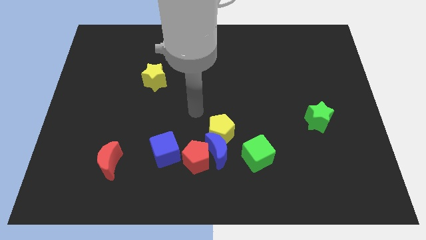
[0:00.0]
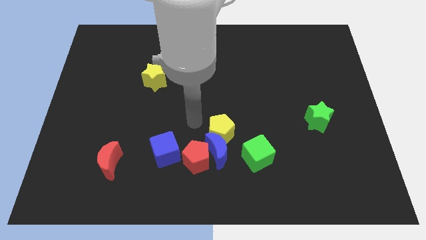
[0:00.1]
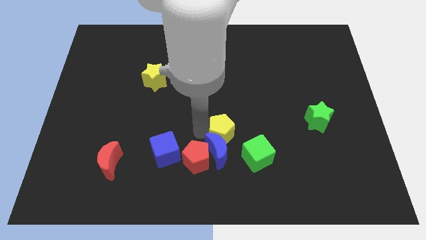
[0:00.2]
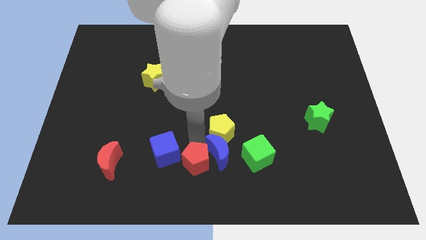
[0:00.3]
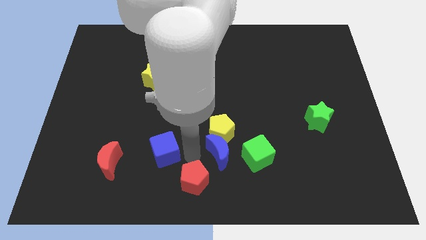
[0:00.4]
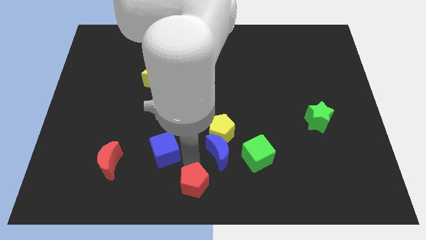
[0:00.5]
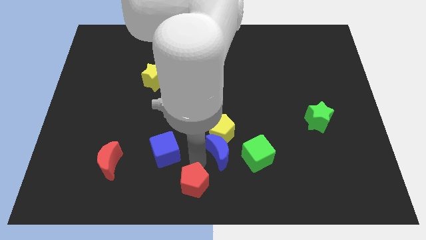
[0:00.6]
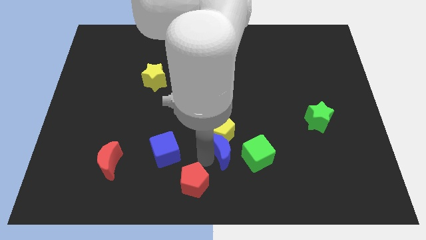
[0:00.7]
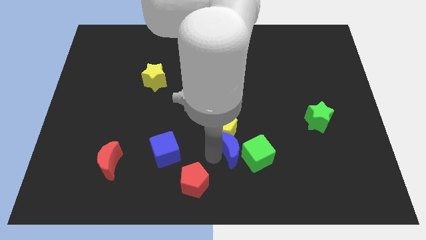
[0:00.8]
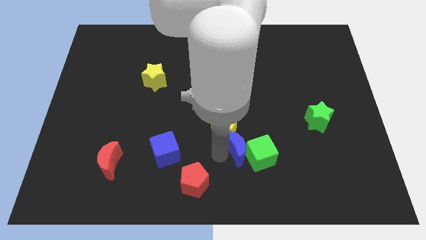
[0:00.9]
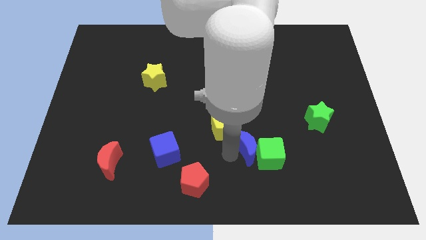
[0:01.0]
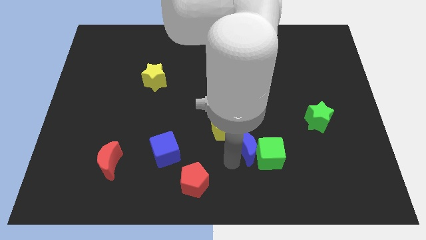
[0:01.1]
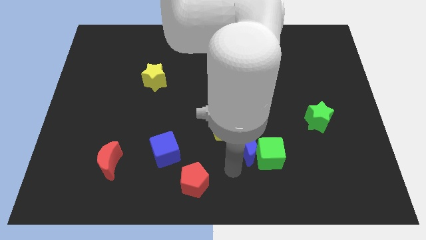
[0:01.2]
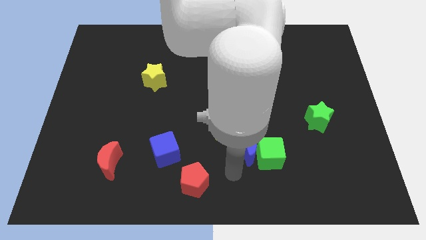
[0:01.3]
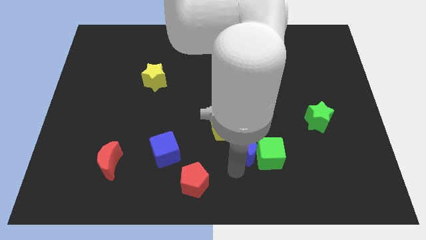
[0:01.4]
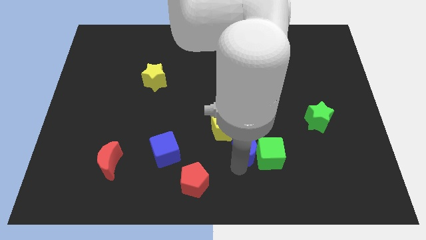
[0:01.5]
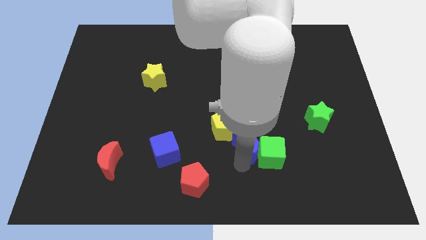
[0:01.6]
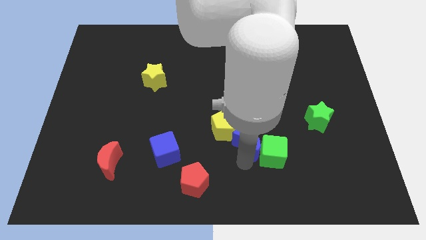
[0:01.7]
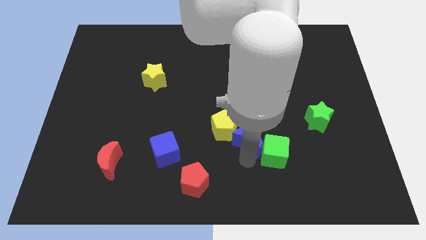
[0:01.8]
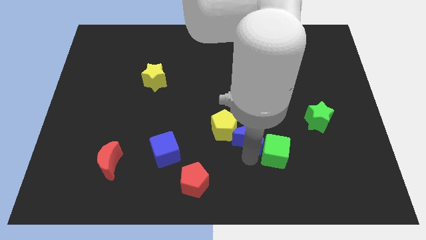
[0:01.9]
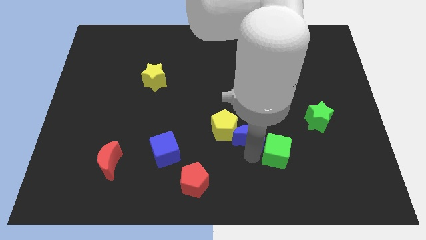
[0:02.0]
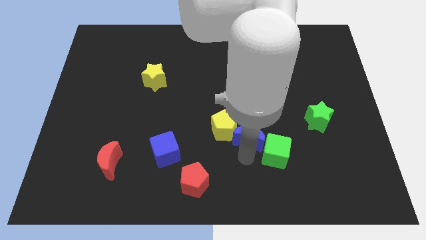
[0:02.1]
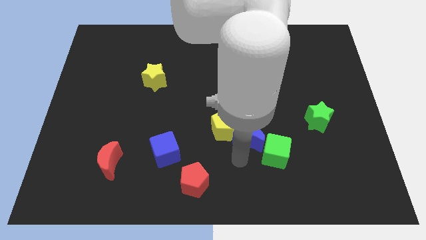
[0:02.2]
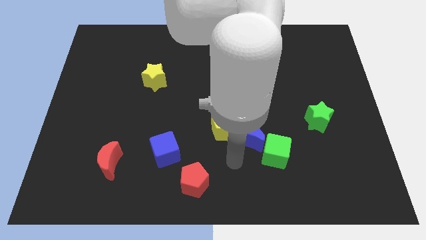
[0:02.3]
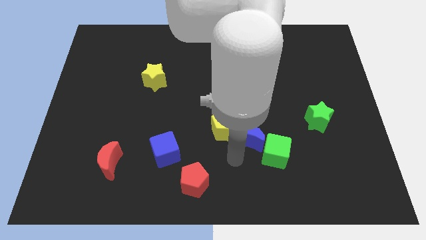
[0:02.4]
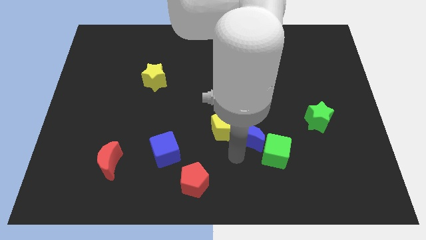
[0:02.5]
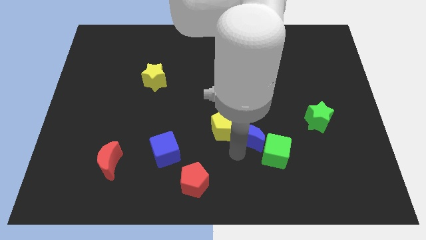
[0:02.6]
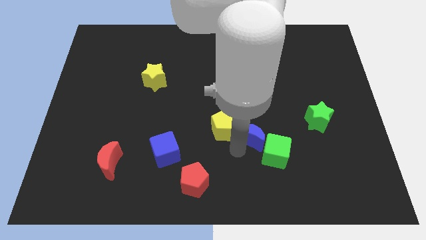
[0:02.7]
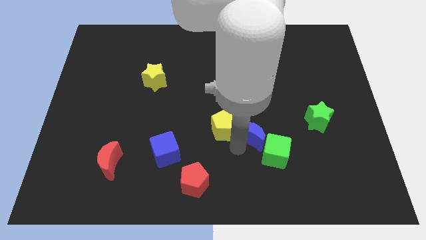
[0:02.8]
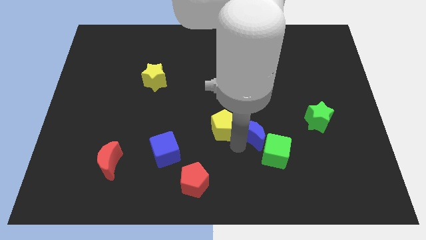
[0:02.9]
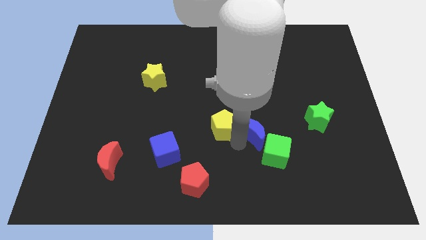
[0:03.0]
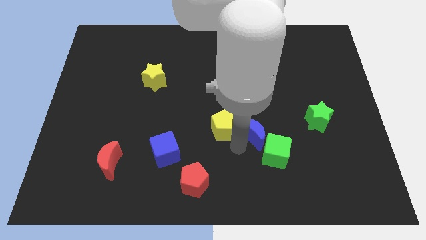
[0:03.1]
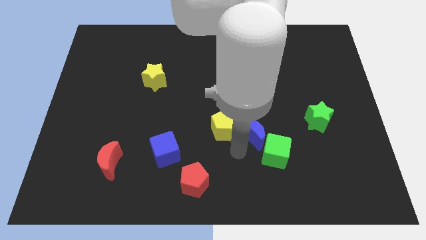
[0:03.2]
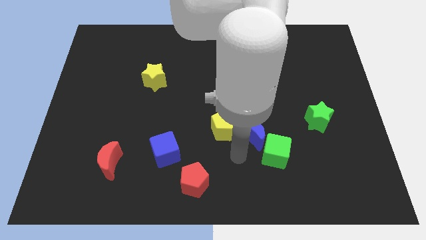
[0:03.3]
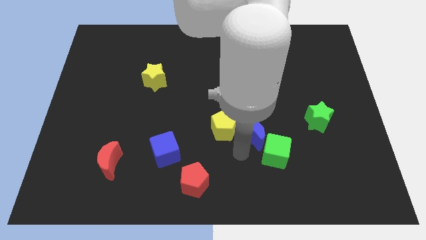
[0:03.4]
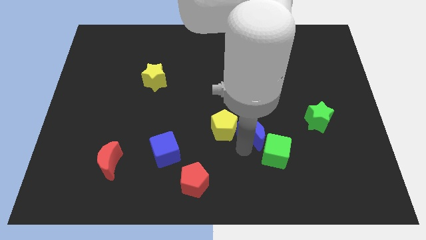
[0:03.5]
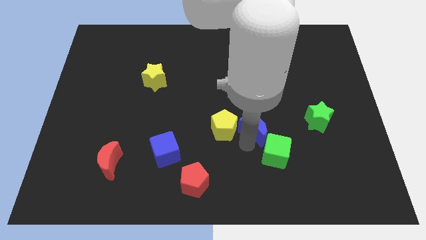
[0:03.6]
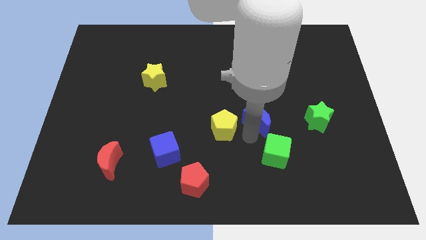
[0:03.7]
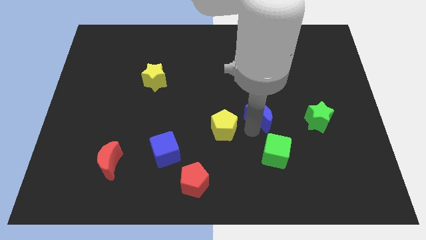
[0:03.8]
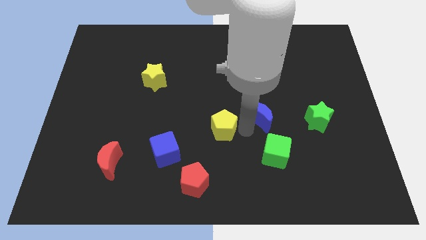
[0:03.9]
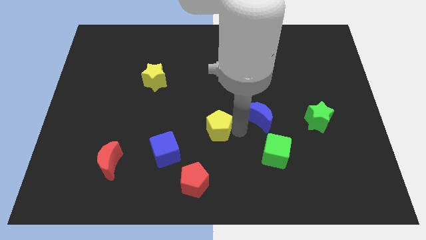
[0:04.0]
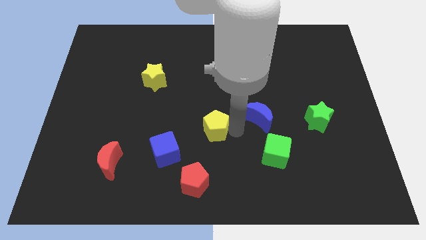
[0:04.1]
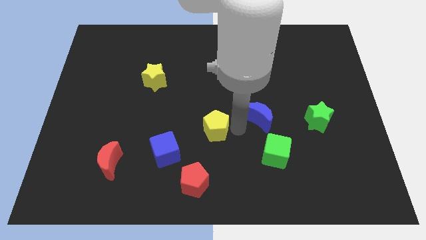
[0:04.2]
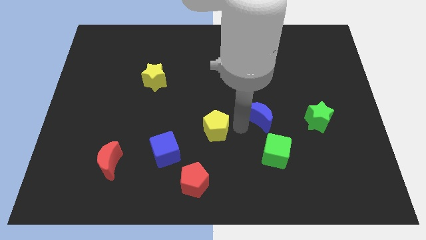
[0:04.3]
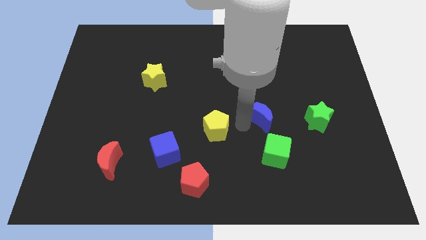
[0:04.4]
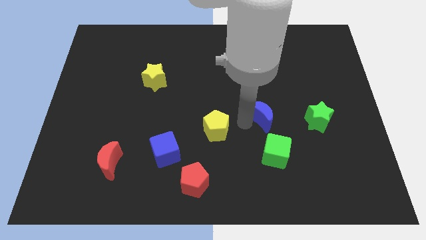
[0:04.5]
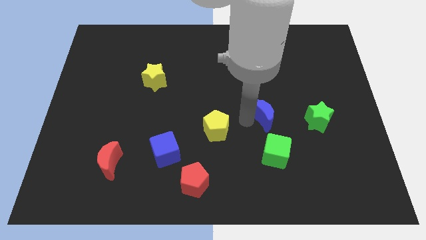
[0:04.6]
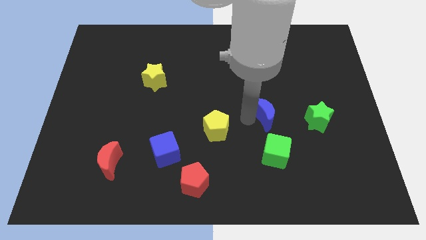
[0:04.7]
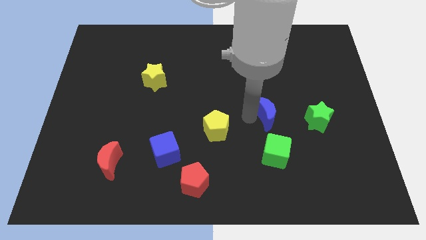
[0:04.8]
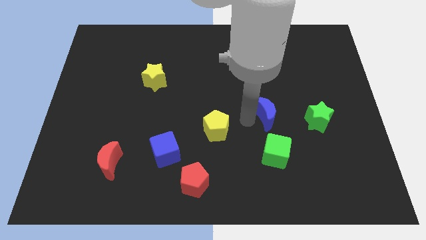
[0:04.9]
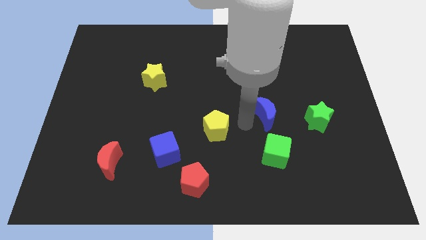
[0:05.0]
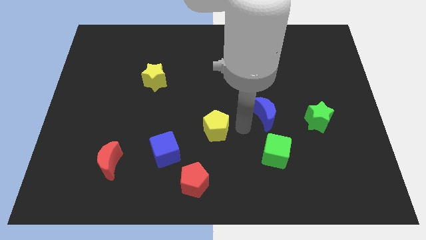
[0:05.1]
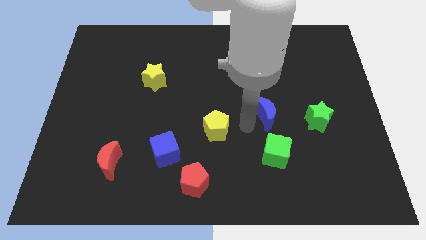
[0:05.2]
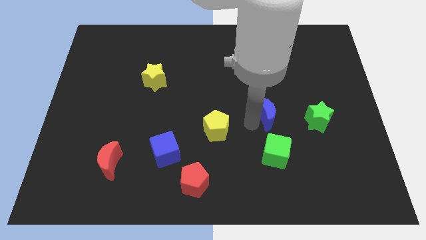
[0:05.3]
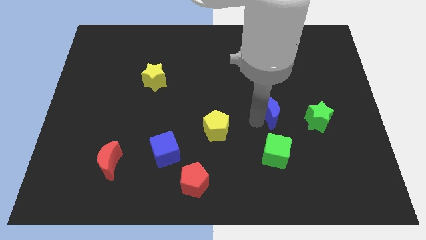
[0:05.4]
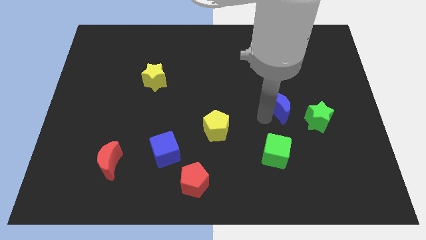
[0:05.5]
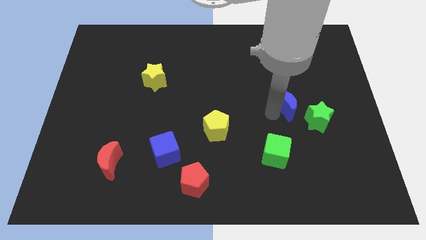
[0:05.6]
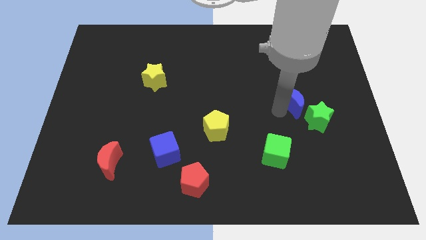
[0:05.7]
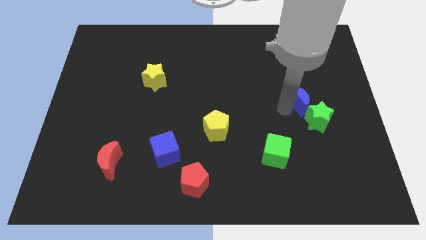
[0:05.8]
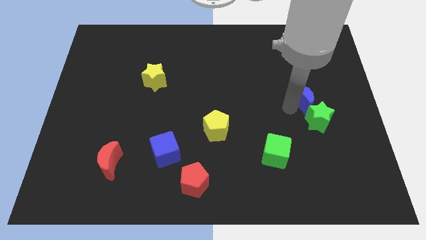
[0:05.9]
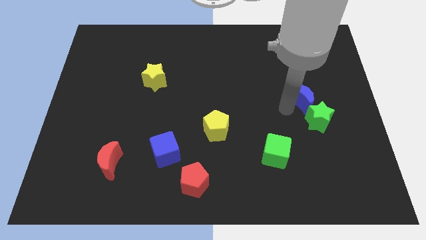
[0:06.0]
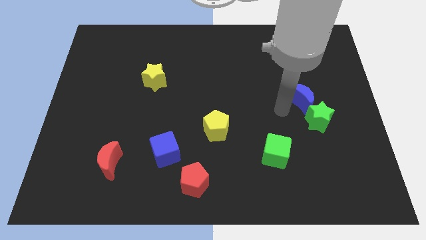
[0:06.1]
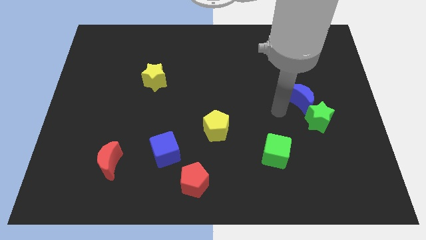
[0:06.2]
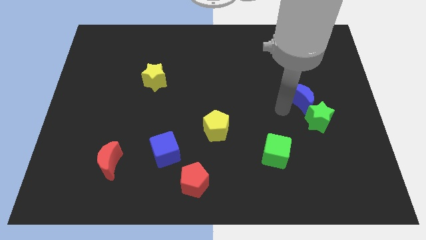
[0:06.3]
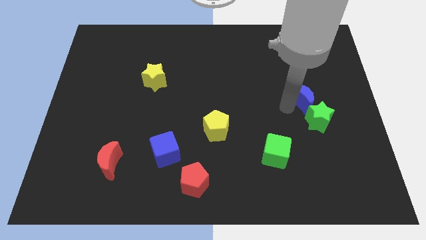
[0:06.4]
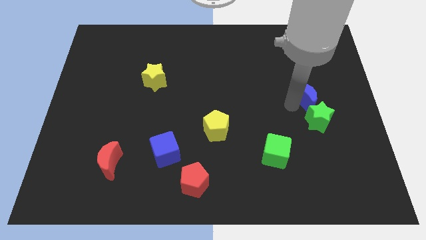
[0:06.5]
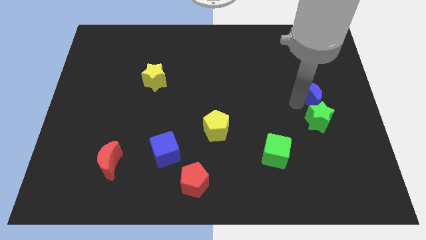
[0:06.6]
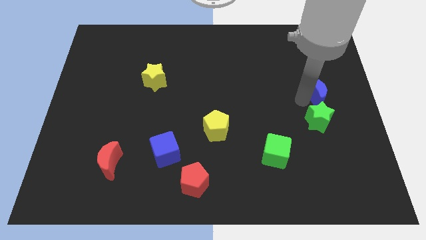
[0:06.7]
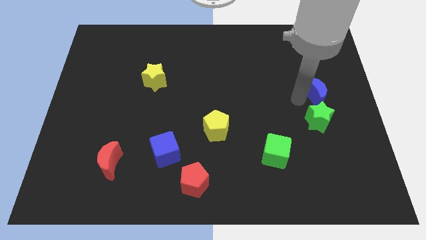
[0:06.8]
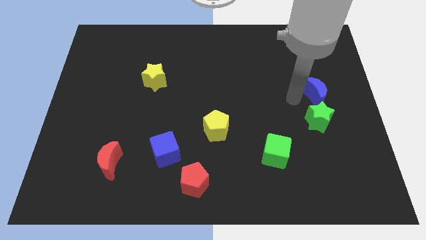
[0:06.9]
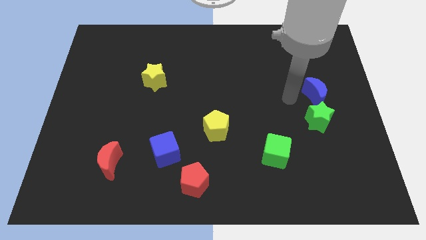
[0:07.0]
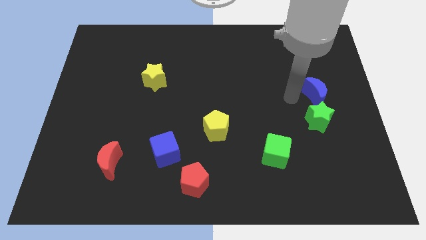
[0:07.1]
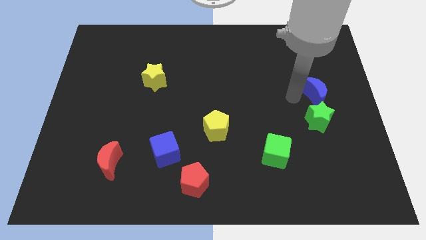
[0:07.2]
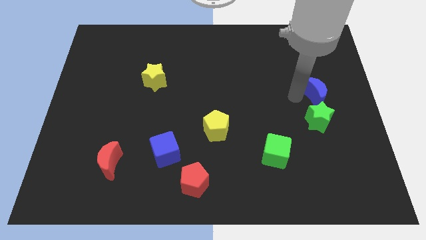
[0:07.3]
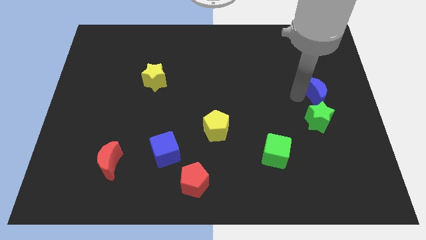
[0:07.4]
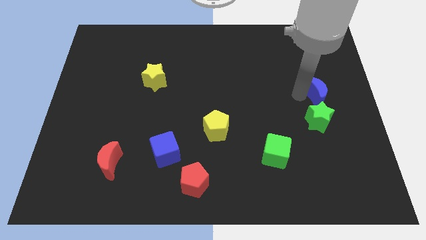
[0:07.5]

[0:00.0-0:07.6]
move the blue moon to the center right
